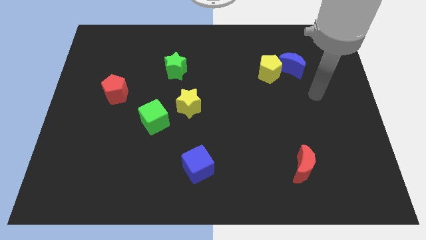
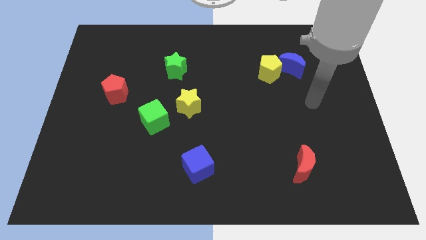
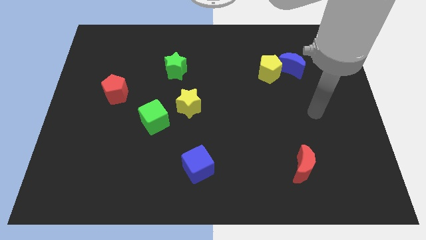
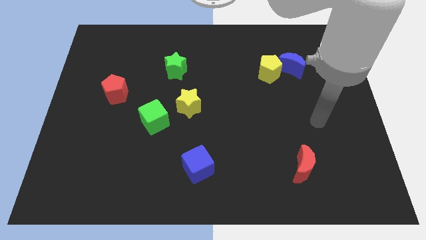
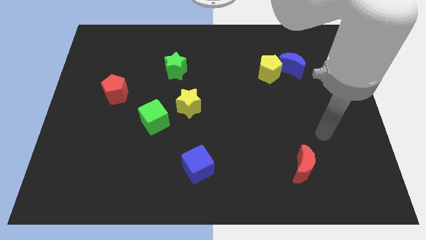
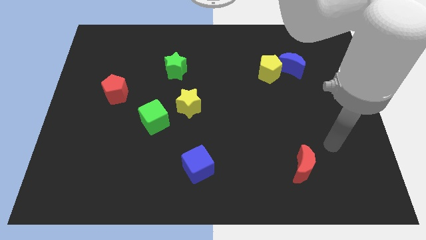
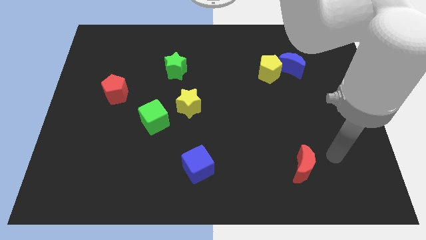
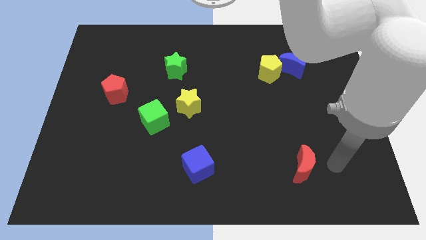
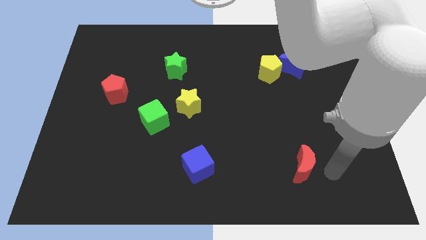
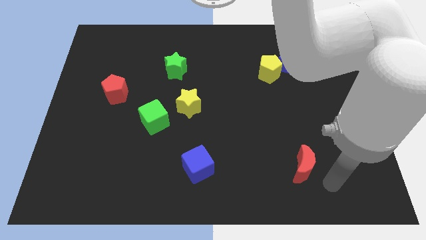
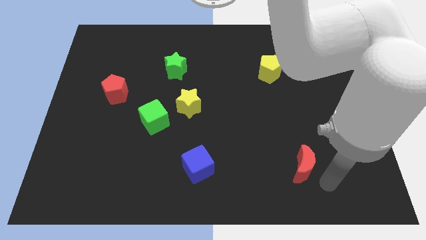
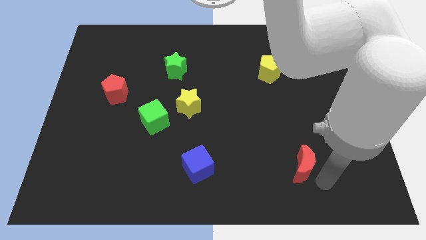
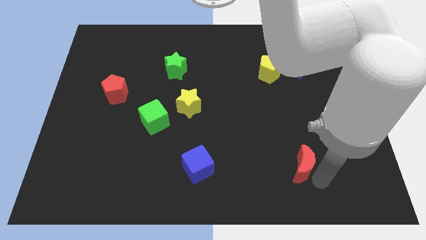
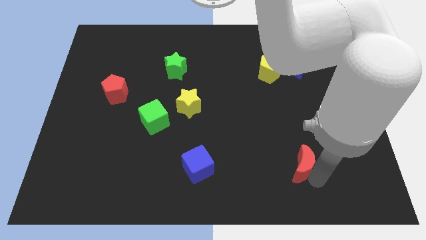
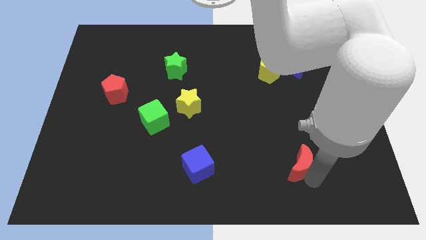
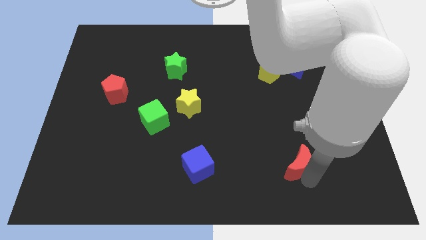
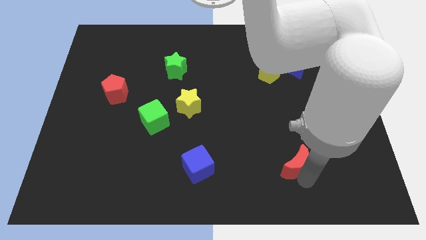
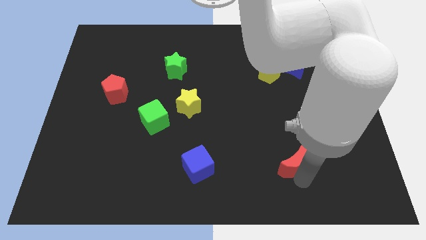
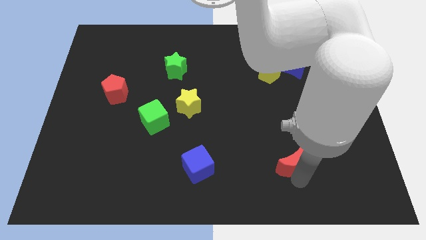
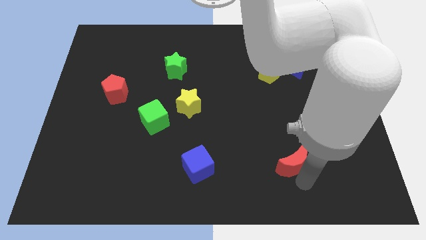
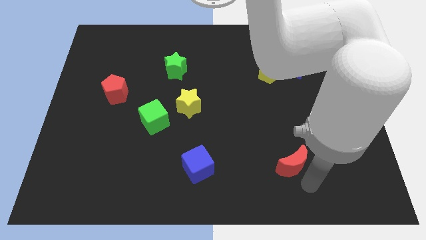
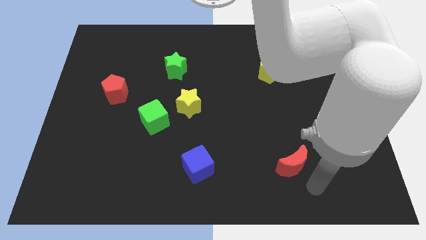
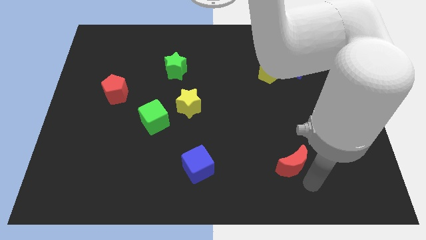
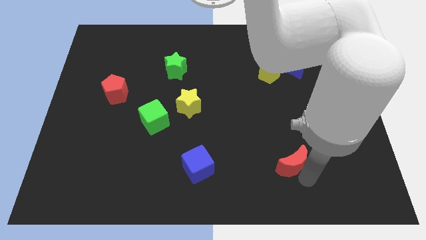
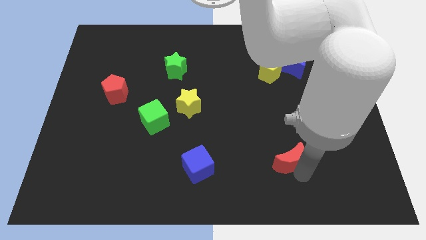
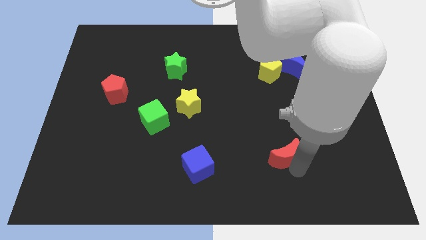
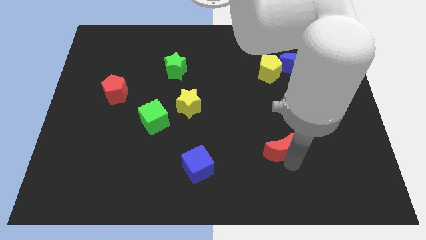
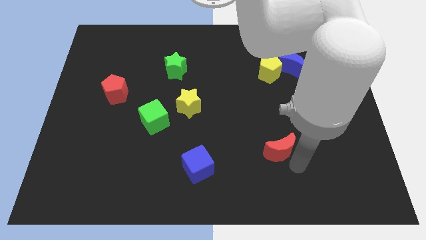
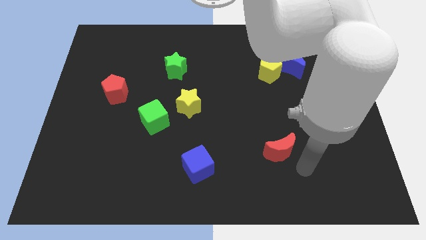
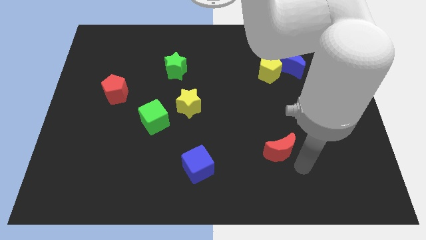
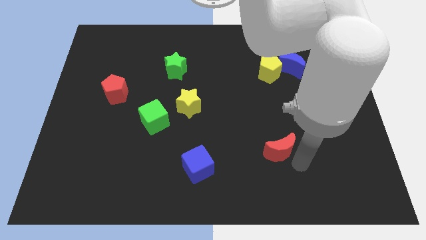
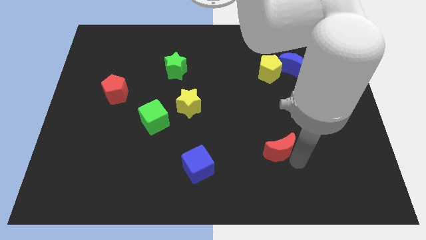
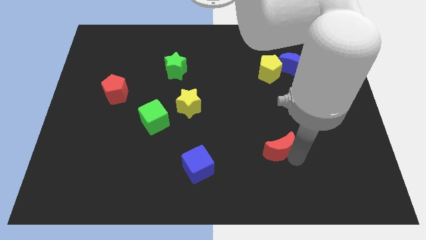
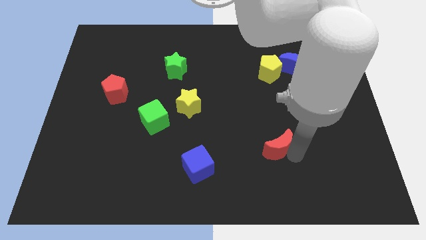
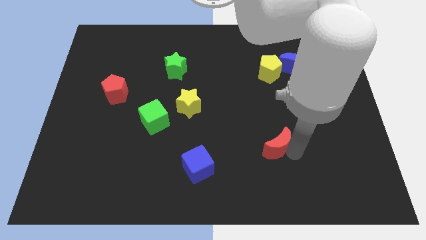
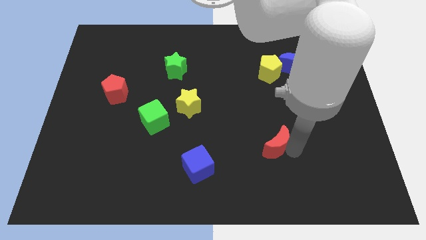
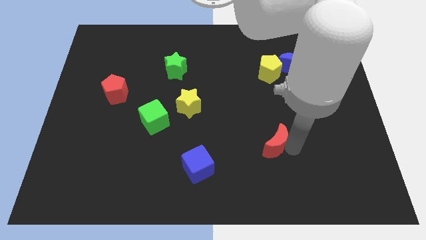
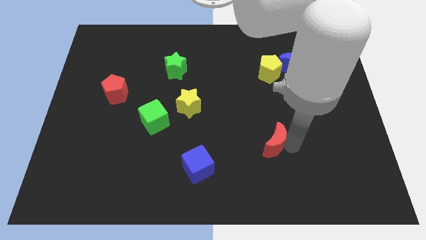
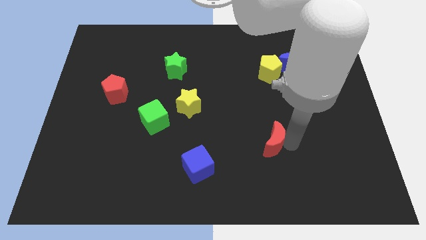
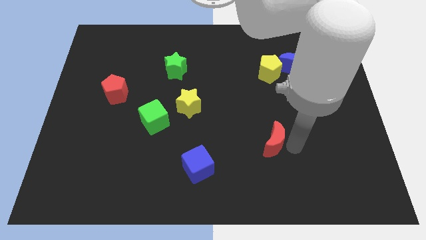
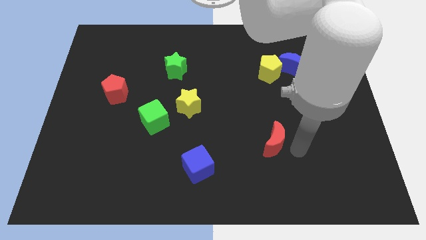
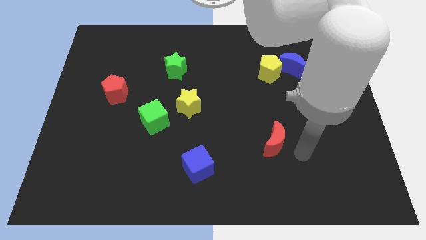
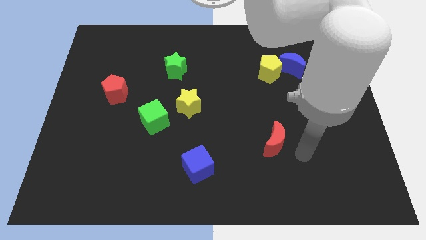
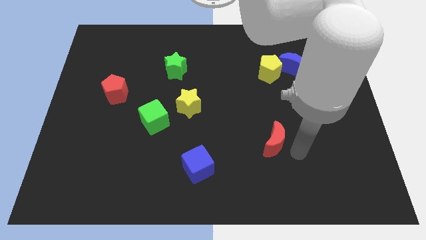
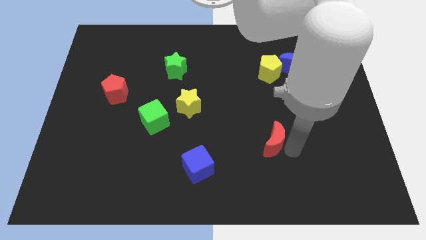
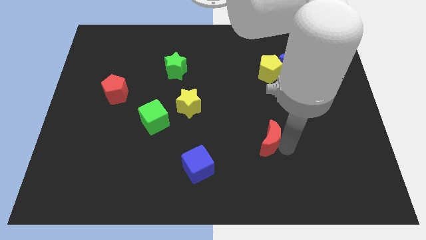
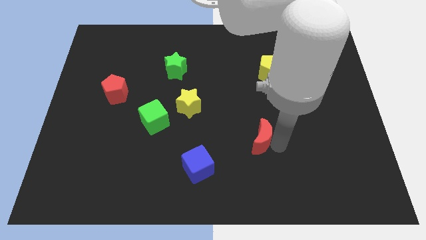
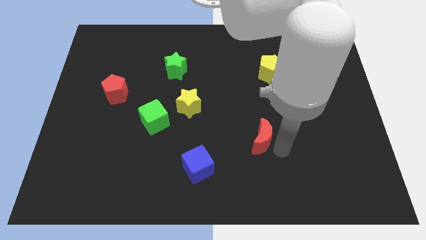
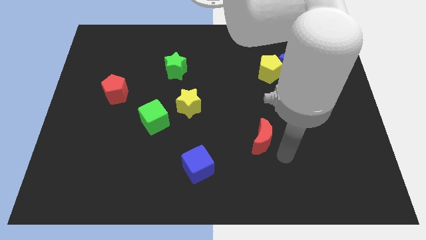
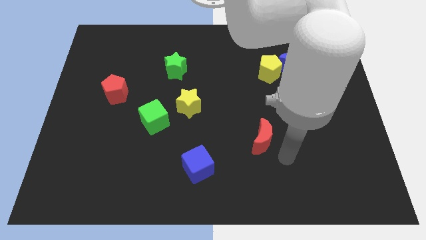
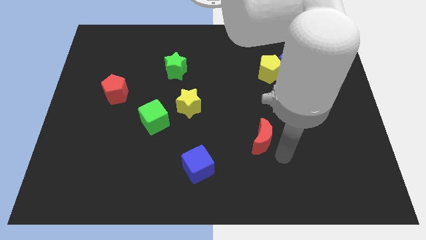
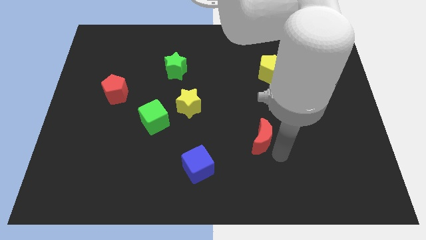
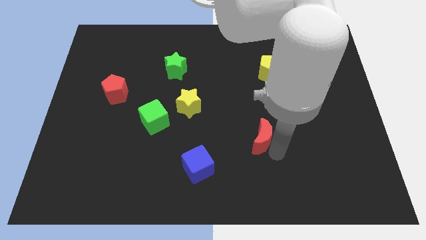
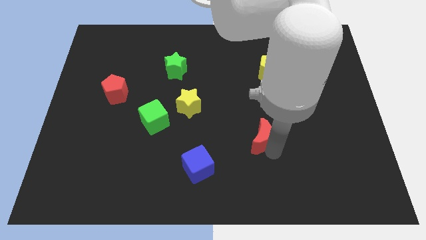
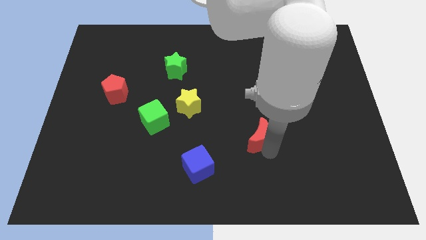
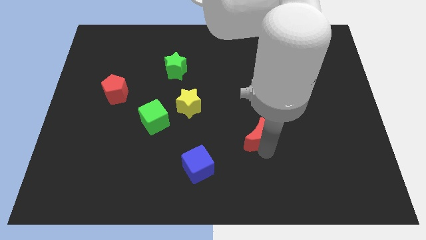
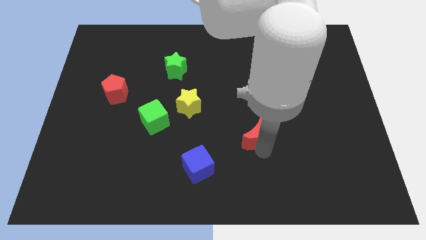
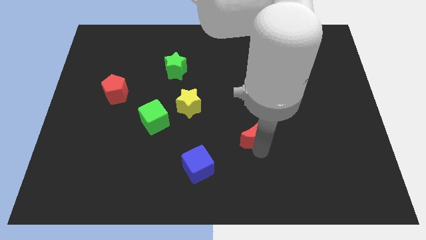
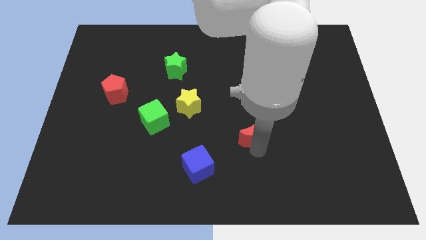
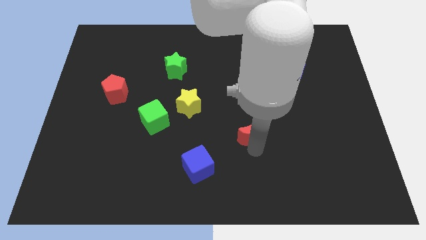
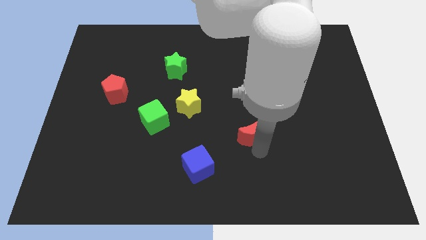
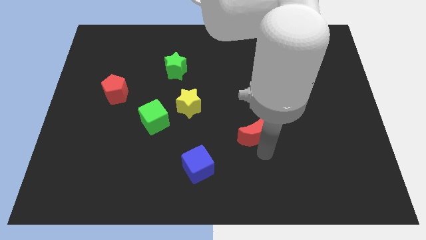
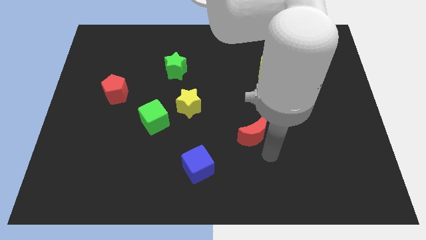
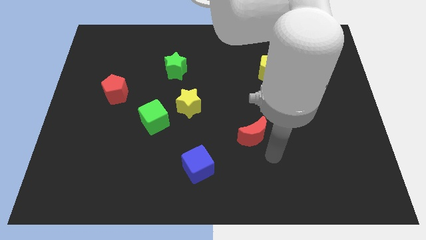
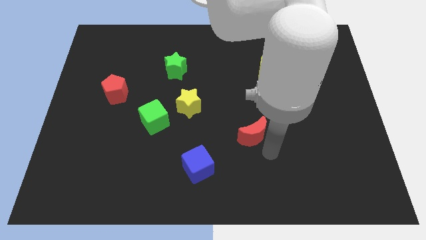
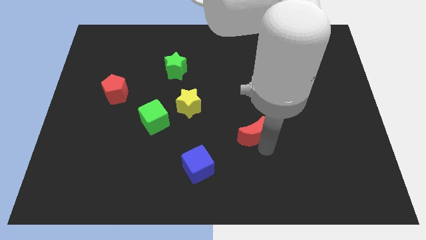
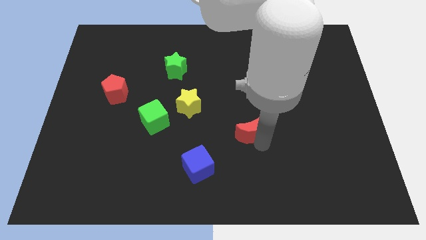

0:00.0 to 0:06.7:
slide the red moon to the middle

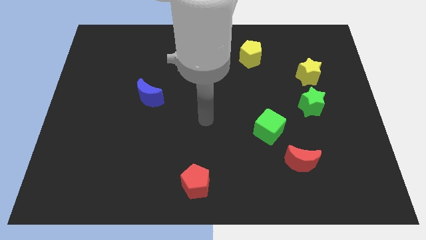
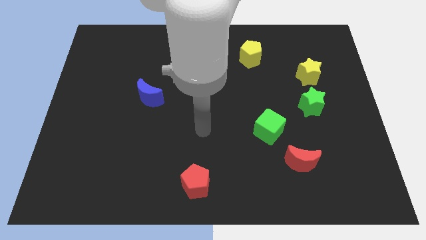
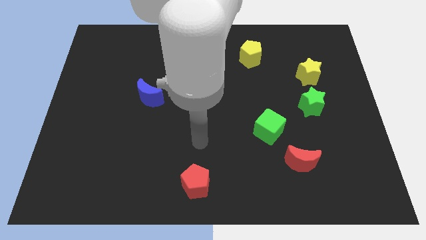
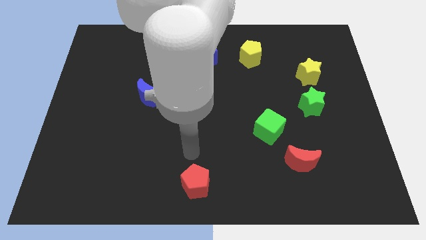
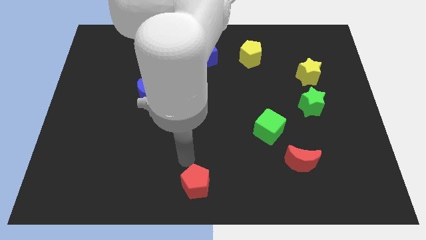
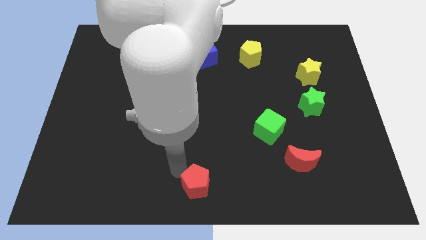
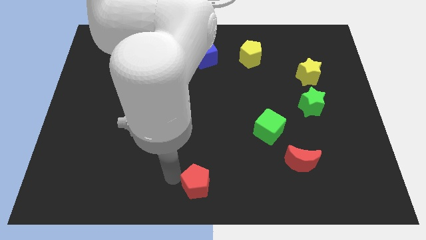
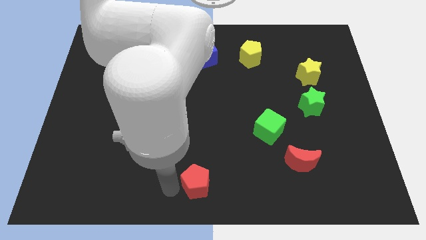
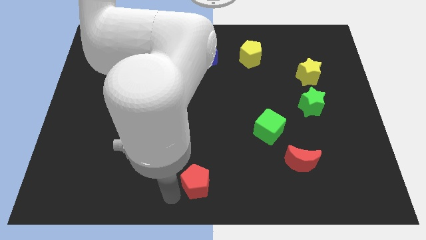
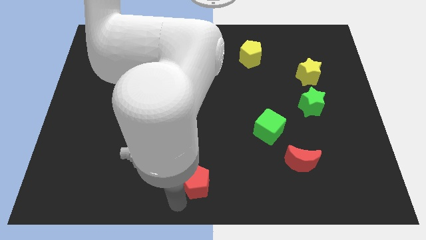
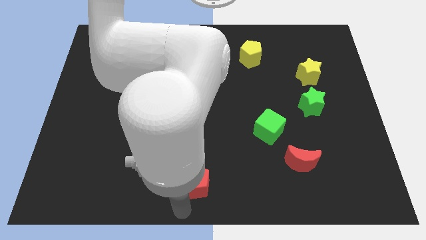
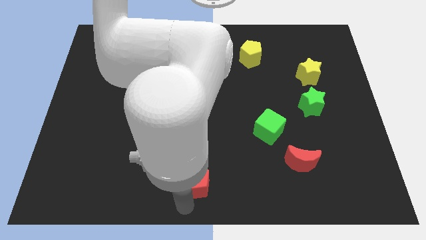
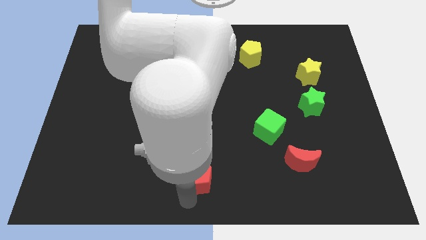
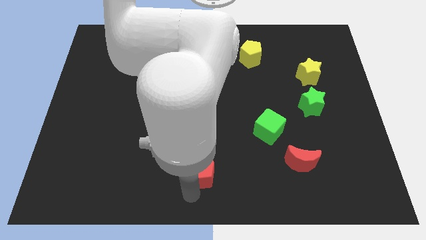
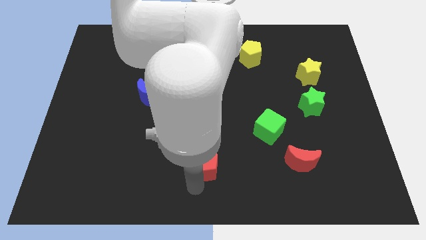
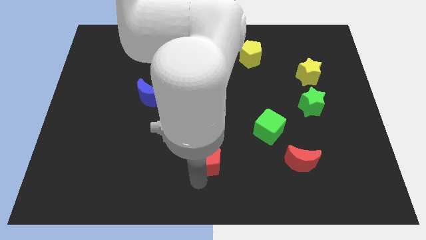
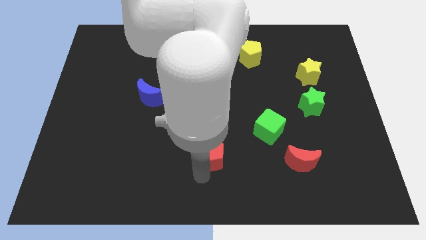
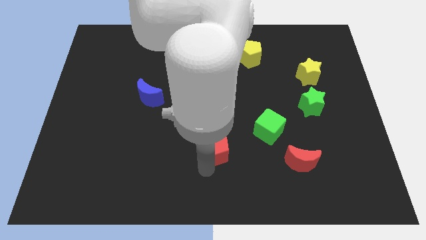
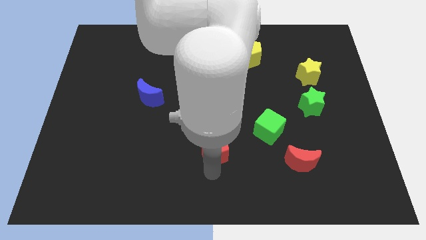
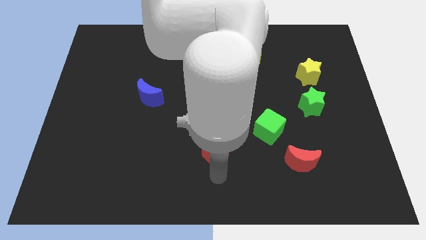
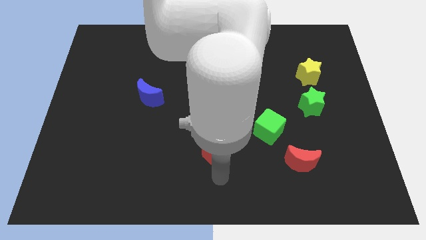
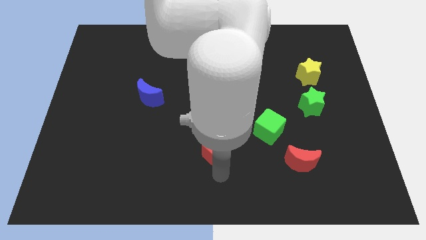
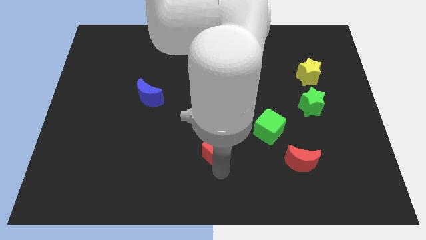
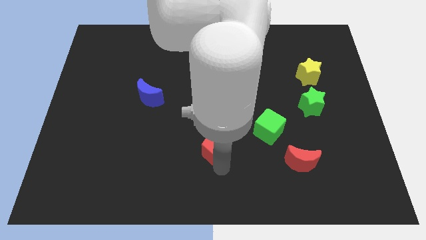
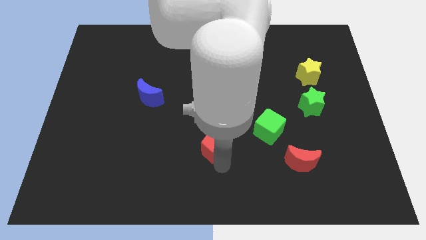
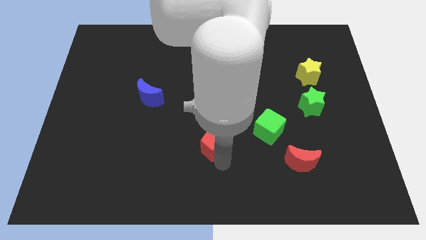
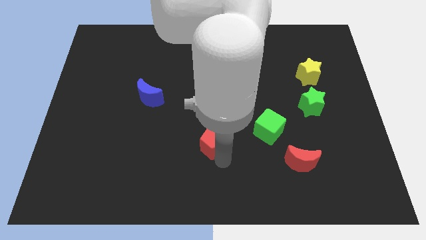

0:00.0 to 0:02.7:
slide the red pentagon to the middle
